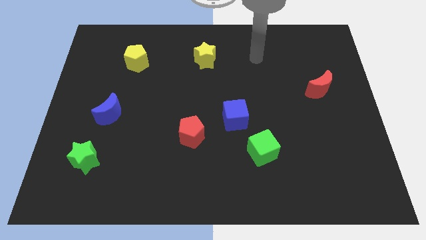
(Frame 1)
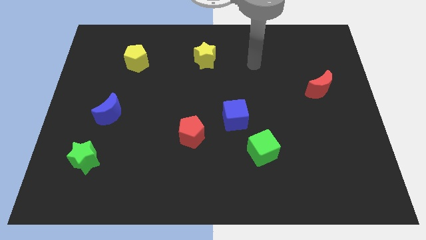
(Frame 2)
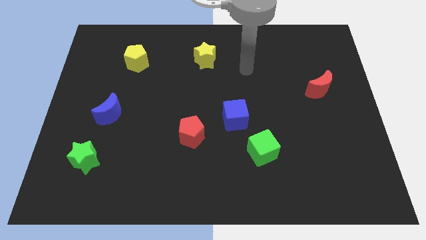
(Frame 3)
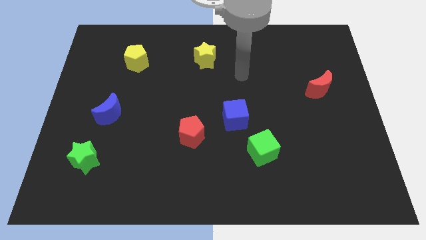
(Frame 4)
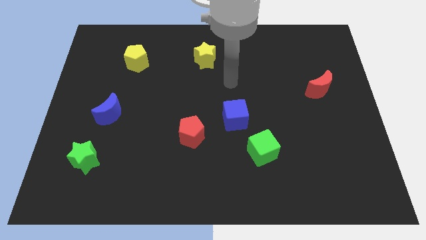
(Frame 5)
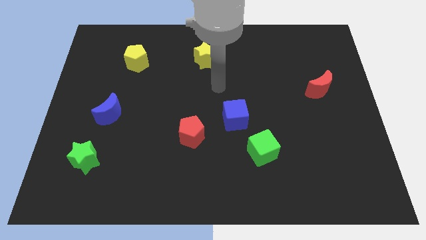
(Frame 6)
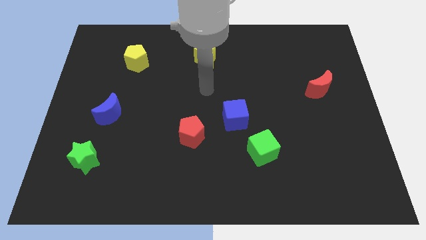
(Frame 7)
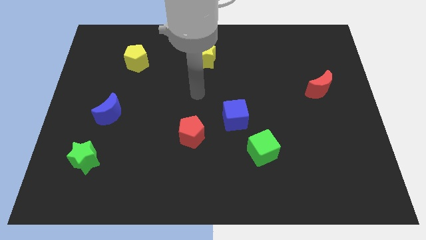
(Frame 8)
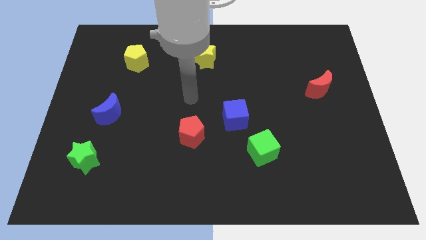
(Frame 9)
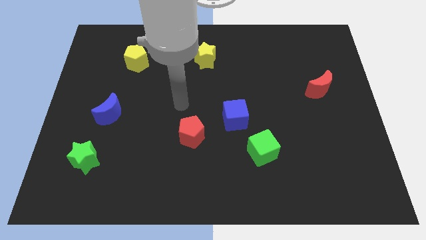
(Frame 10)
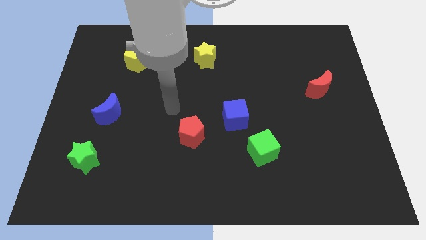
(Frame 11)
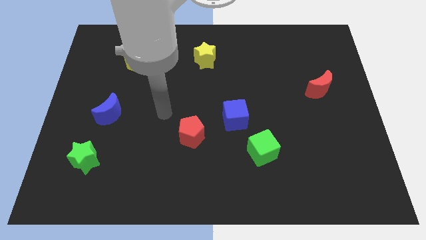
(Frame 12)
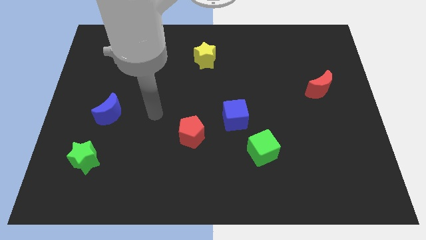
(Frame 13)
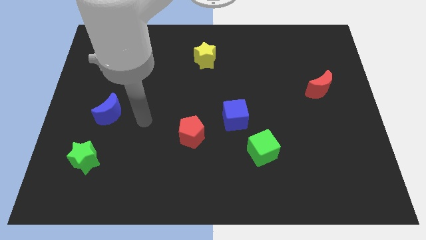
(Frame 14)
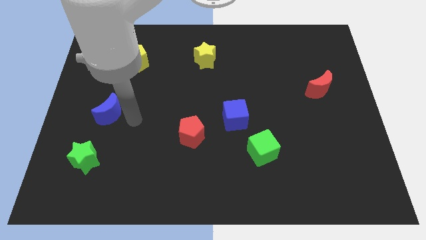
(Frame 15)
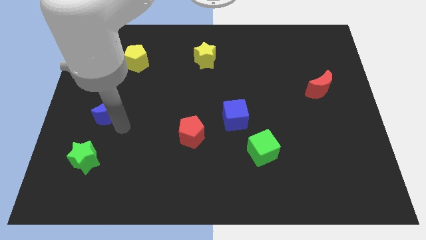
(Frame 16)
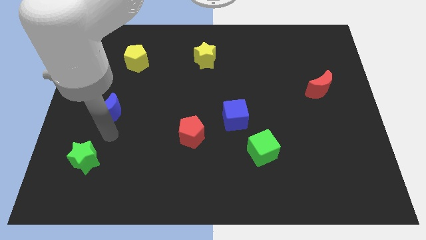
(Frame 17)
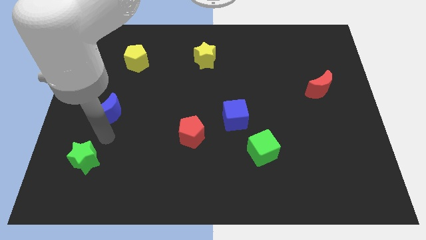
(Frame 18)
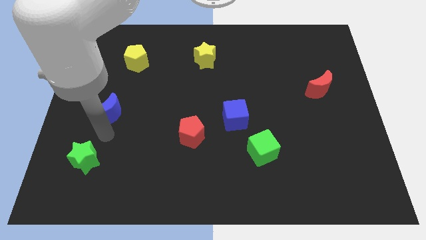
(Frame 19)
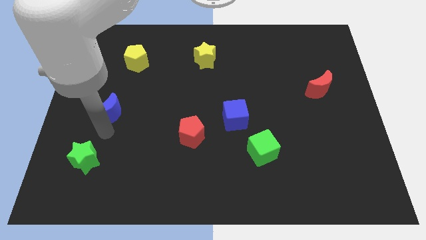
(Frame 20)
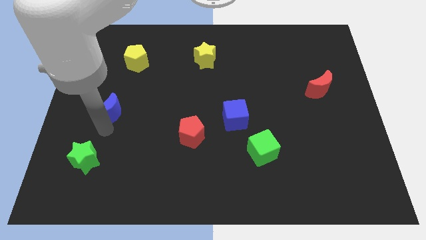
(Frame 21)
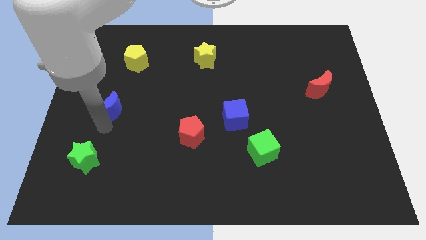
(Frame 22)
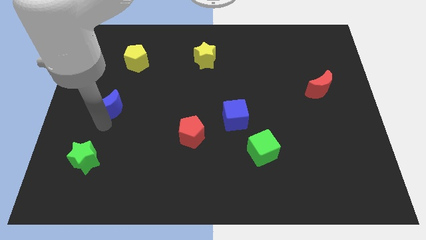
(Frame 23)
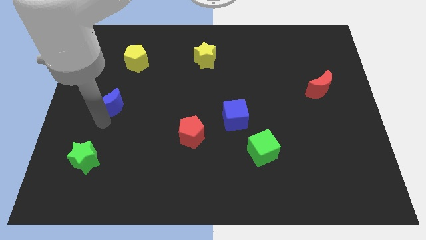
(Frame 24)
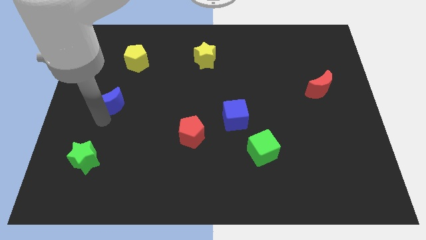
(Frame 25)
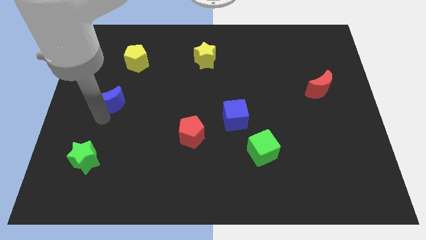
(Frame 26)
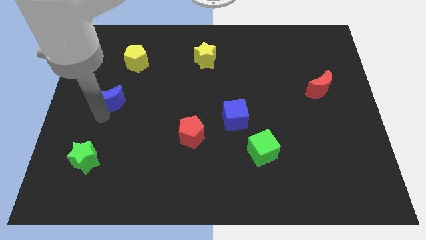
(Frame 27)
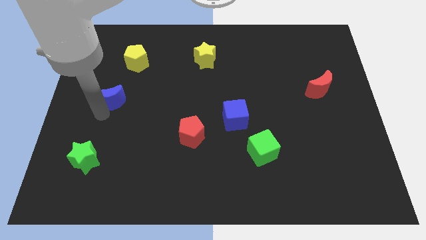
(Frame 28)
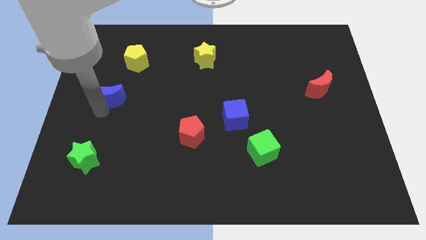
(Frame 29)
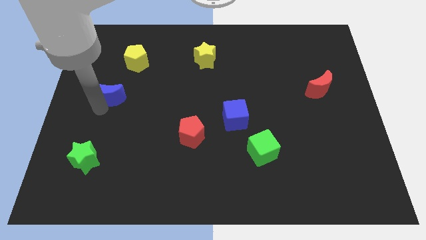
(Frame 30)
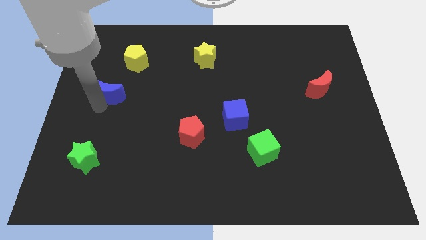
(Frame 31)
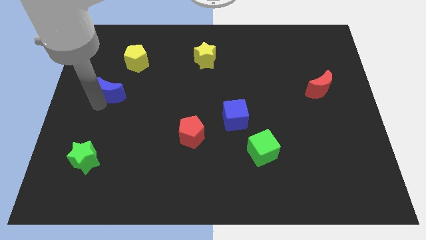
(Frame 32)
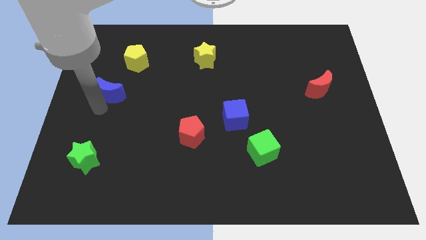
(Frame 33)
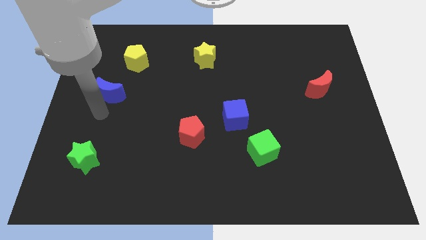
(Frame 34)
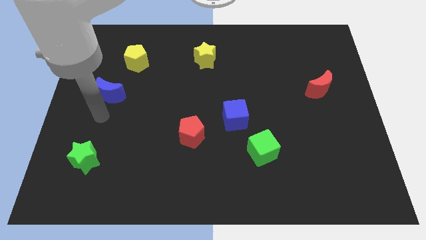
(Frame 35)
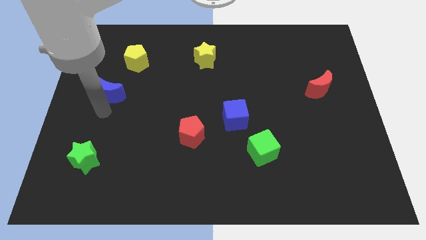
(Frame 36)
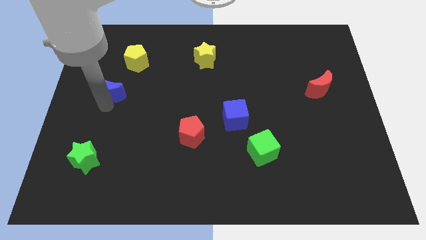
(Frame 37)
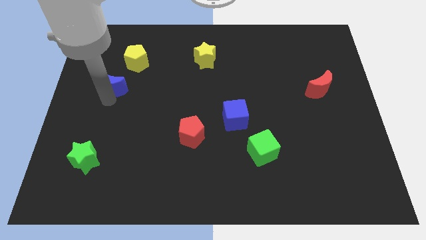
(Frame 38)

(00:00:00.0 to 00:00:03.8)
slide the blue moon somewhat up

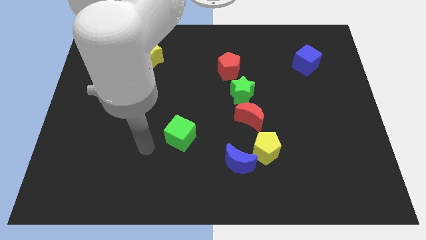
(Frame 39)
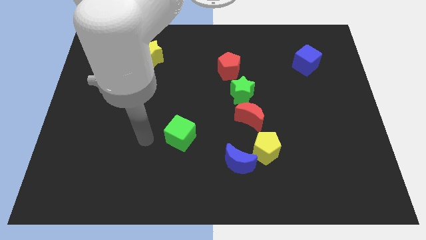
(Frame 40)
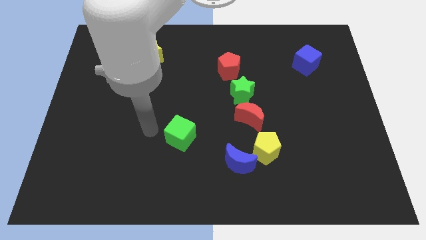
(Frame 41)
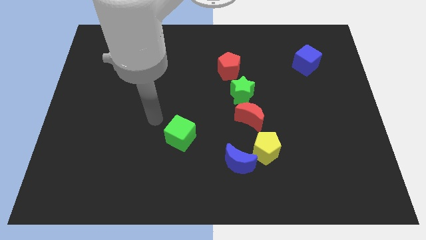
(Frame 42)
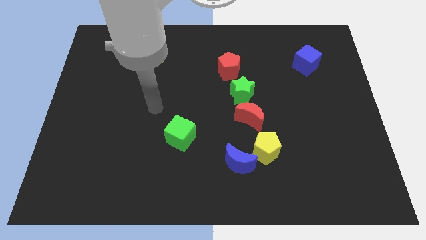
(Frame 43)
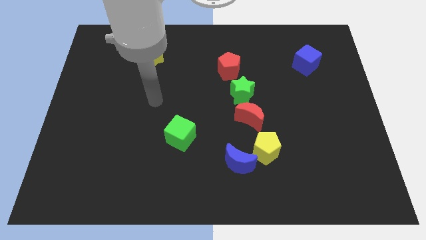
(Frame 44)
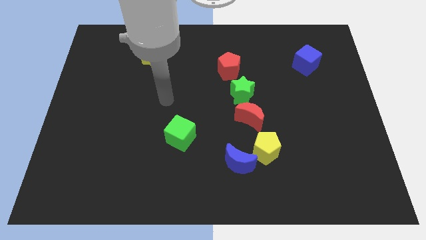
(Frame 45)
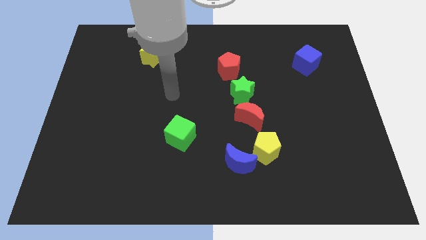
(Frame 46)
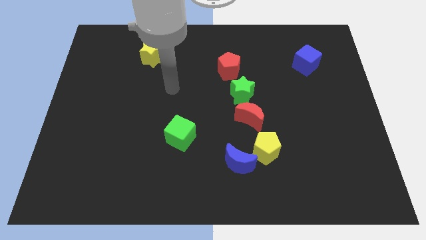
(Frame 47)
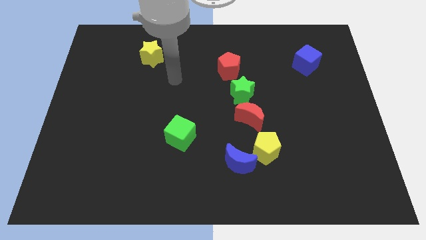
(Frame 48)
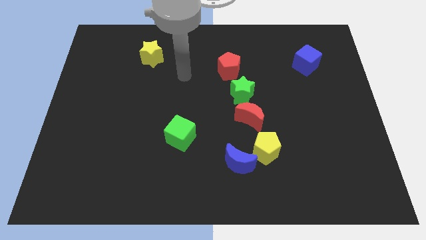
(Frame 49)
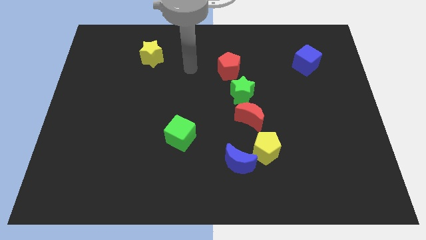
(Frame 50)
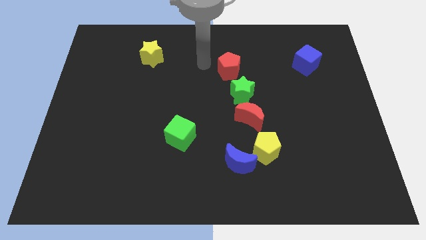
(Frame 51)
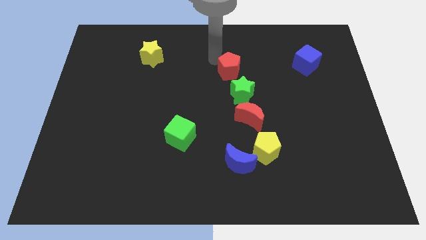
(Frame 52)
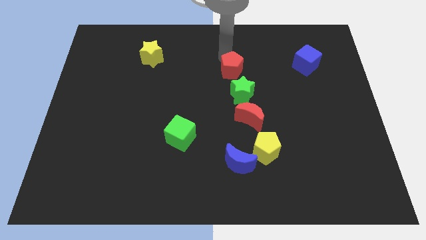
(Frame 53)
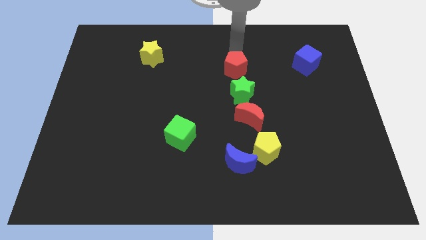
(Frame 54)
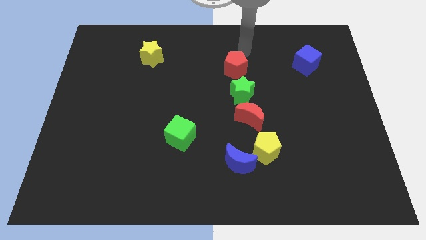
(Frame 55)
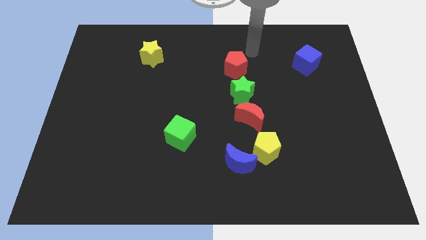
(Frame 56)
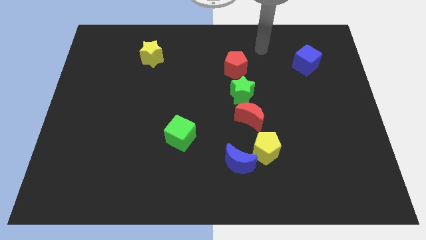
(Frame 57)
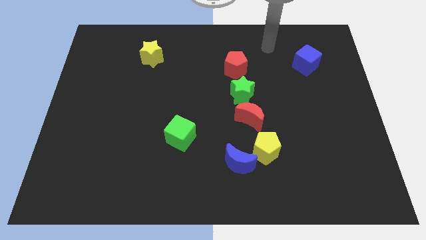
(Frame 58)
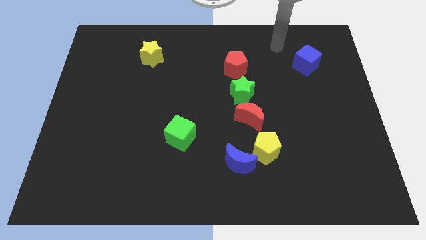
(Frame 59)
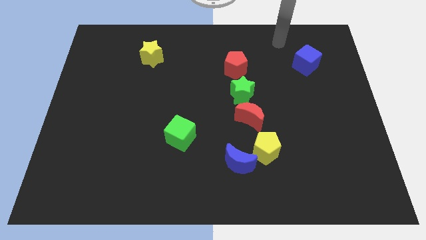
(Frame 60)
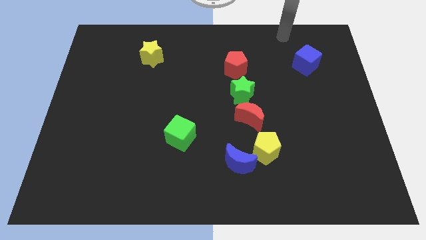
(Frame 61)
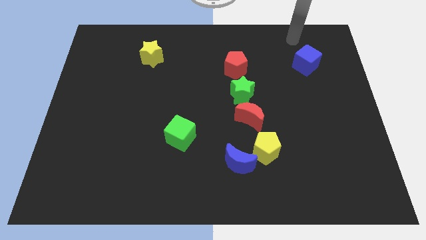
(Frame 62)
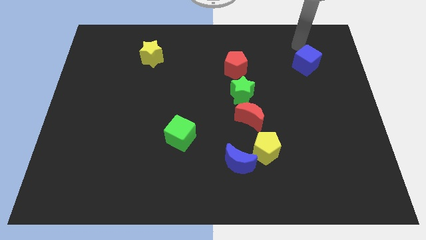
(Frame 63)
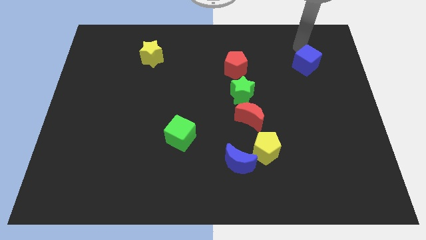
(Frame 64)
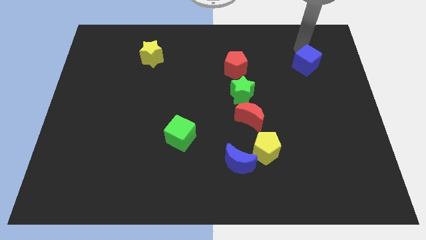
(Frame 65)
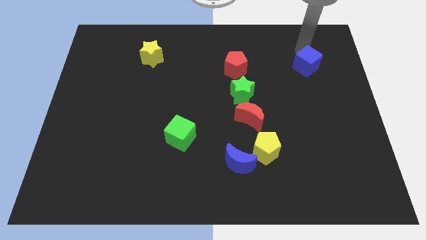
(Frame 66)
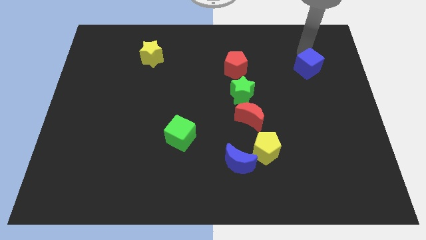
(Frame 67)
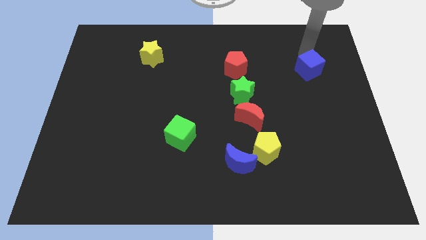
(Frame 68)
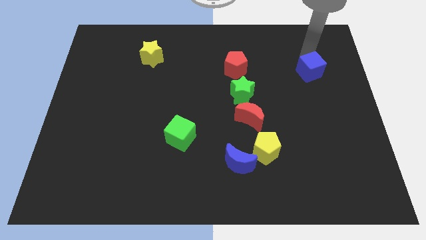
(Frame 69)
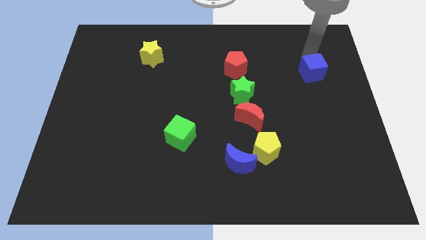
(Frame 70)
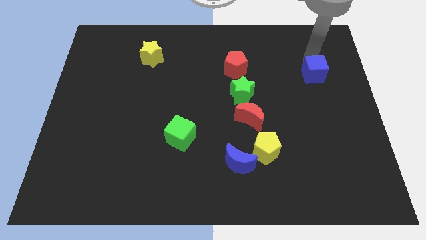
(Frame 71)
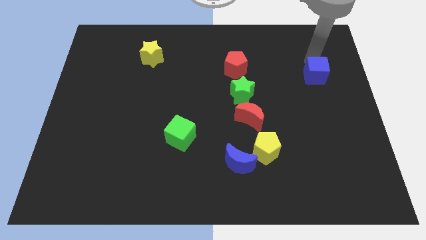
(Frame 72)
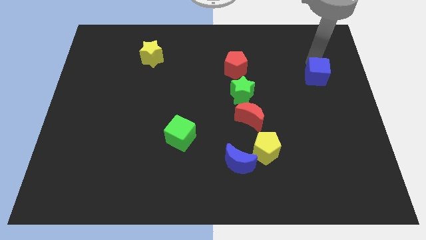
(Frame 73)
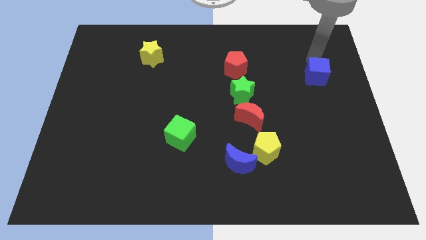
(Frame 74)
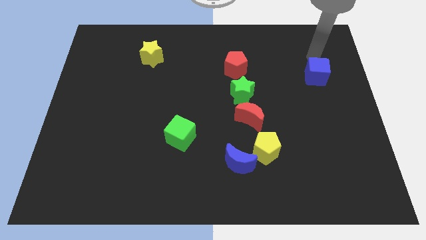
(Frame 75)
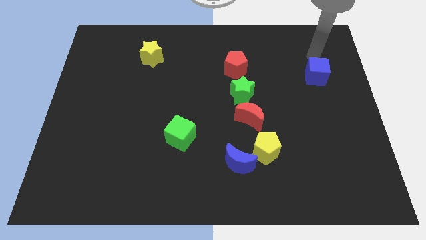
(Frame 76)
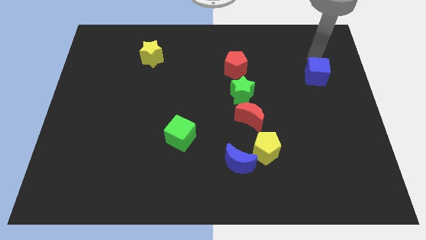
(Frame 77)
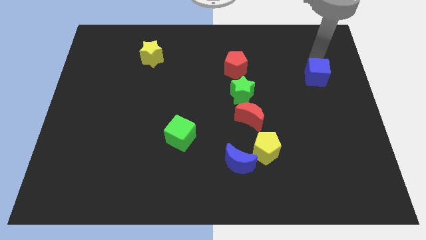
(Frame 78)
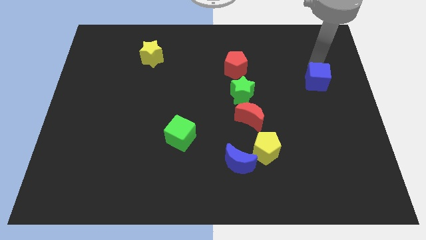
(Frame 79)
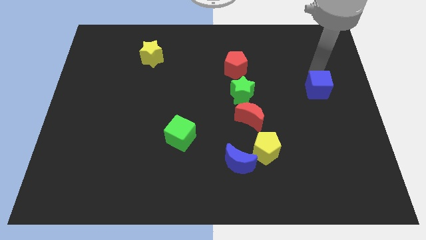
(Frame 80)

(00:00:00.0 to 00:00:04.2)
slightly move the blue cube downwards
